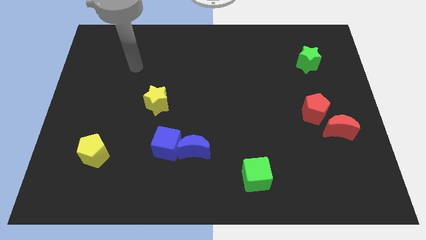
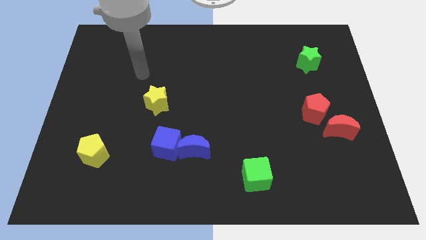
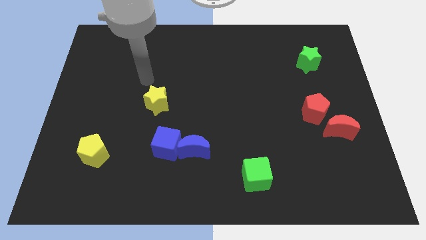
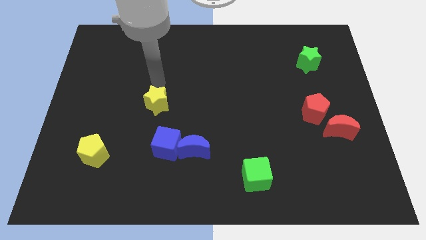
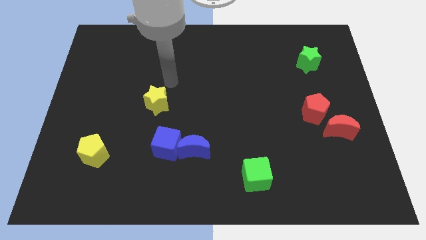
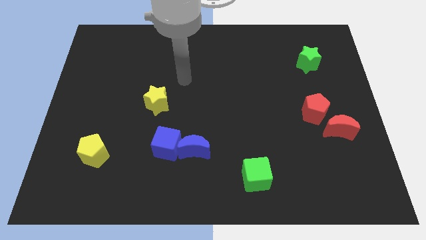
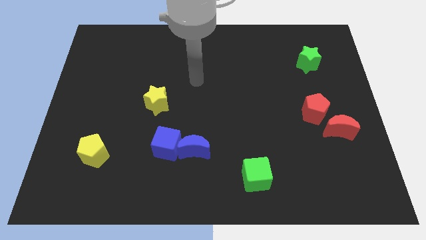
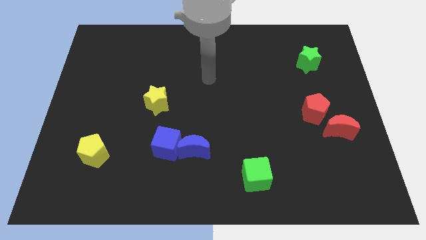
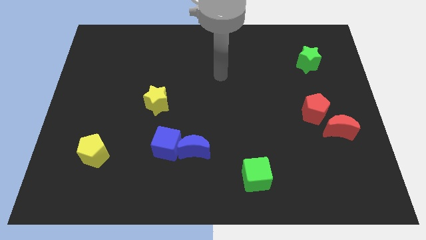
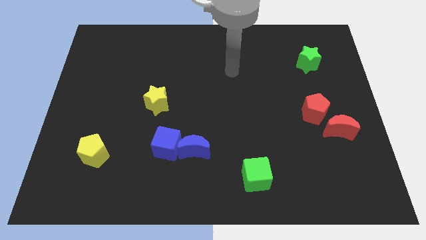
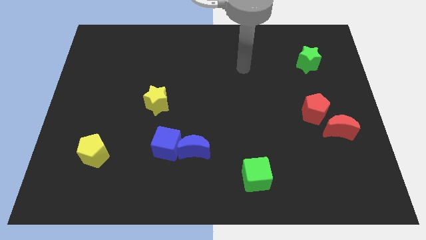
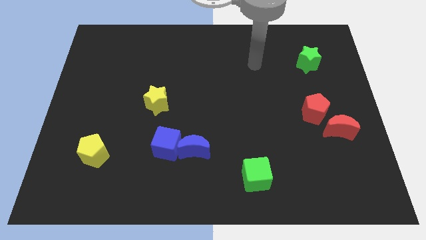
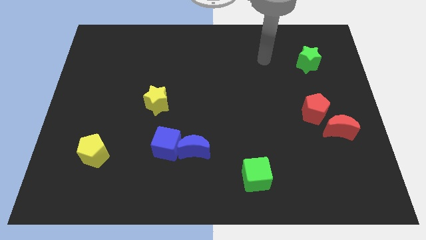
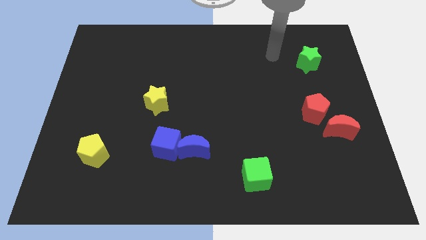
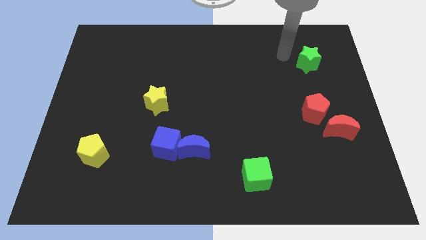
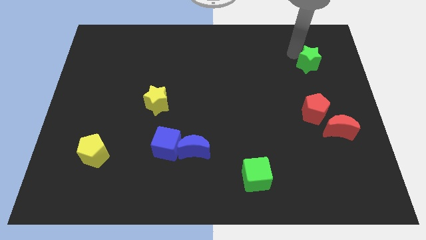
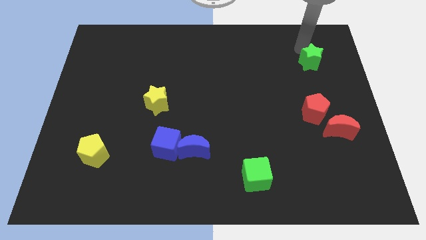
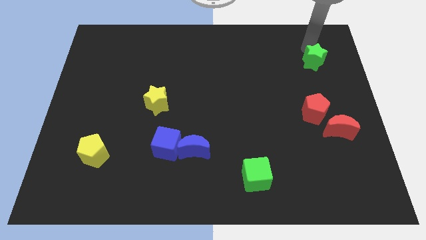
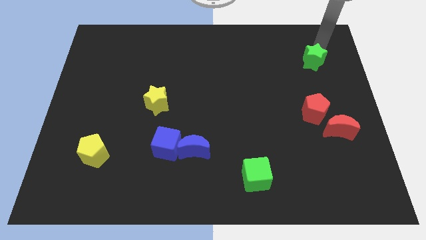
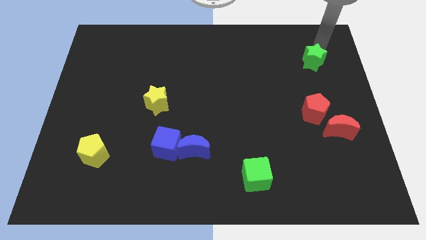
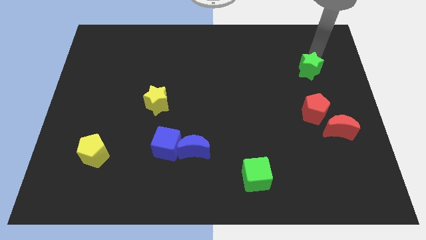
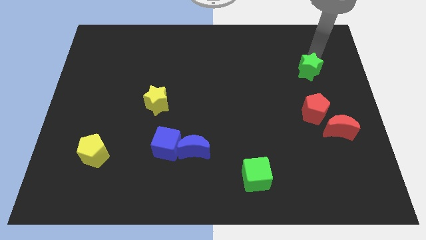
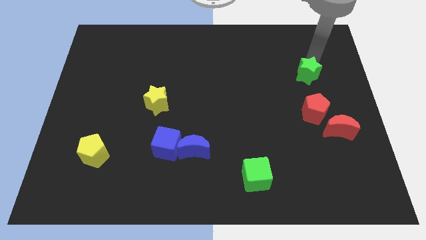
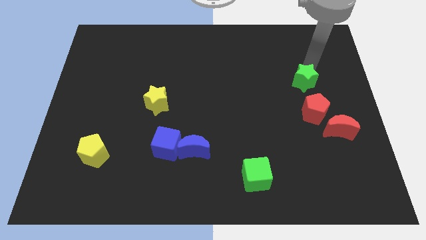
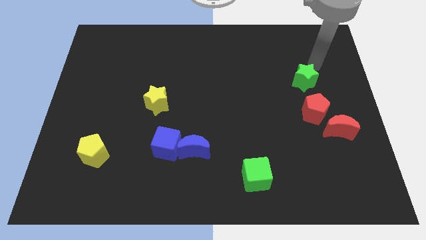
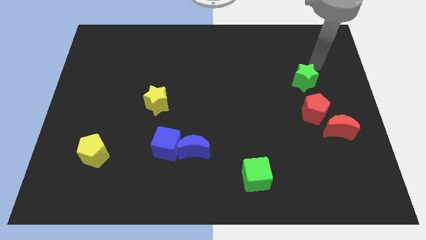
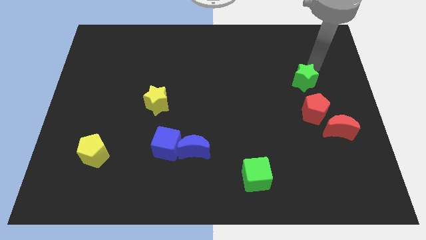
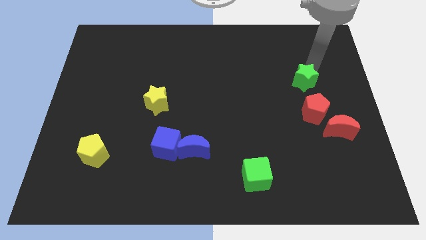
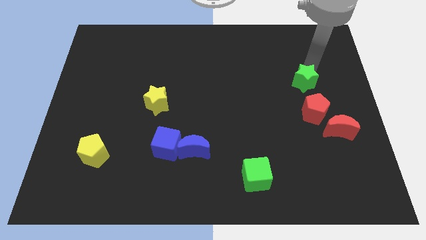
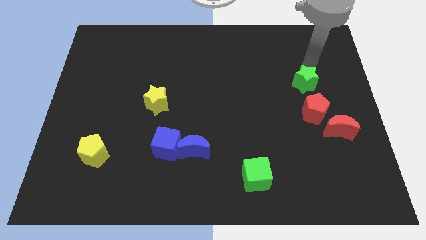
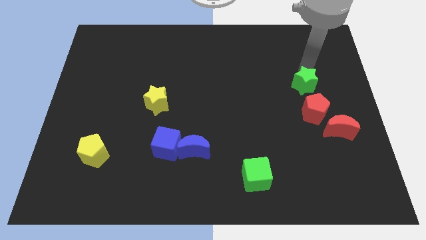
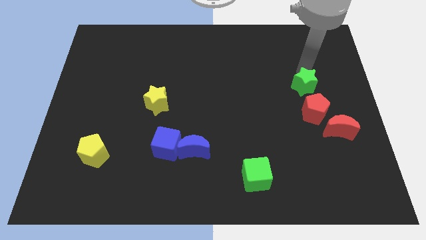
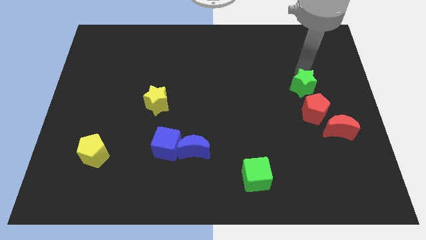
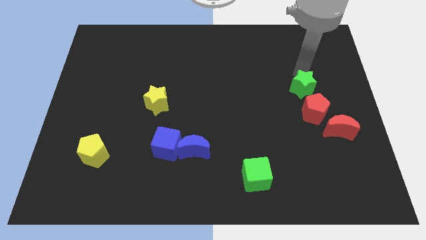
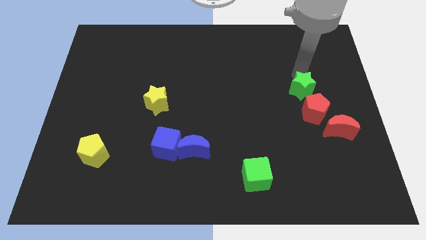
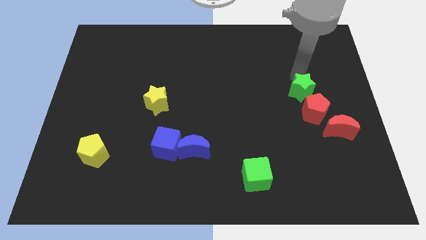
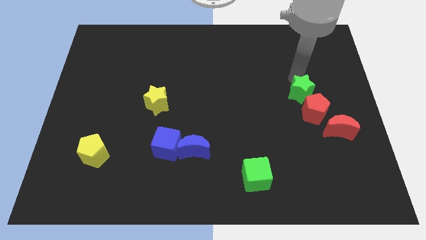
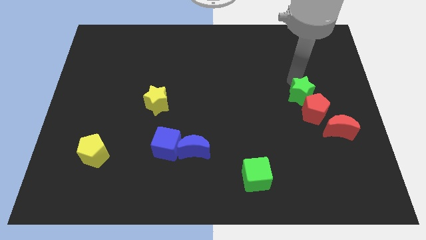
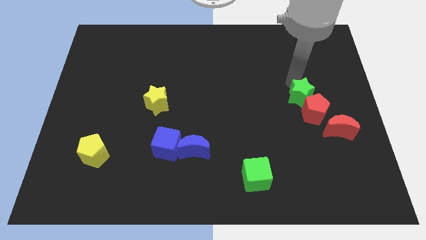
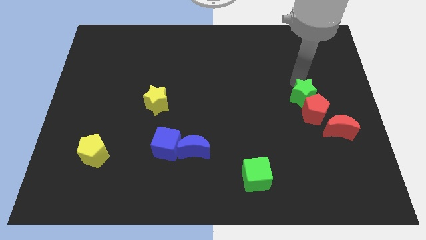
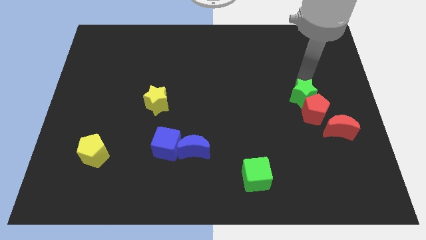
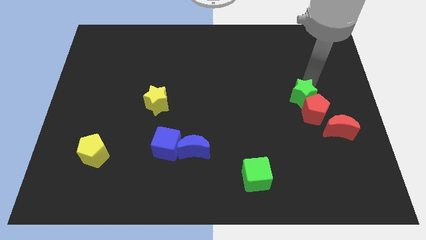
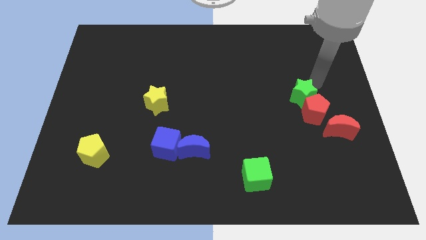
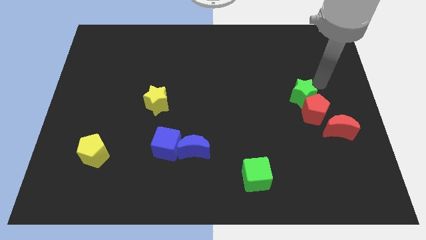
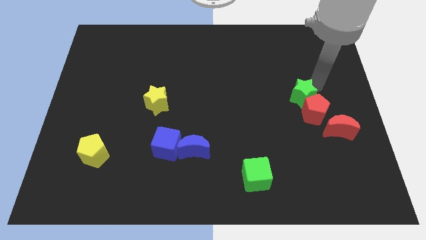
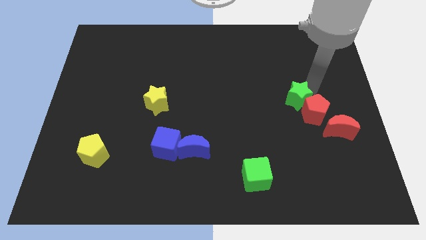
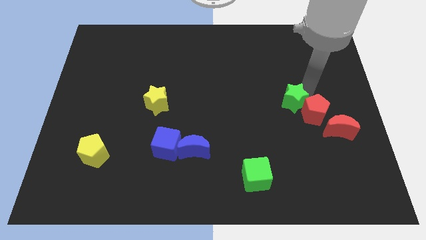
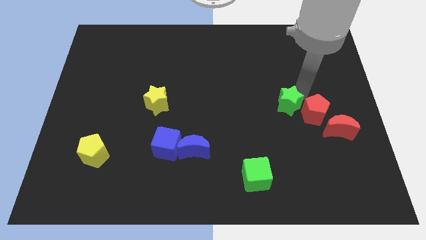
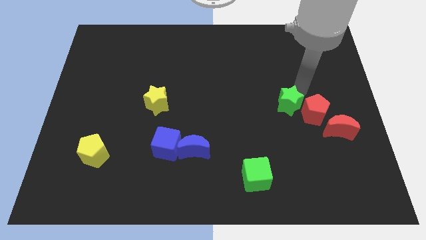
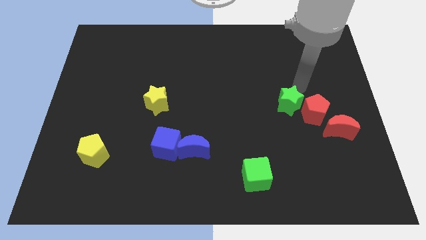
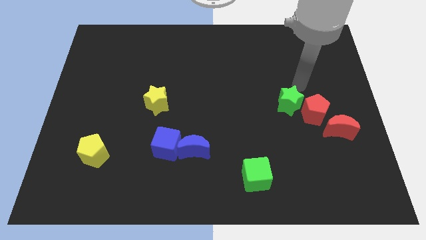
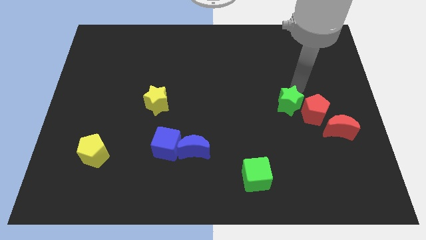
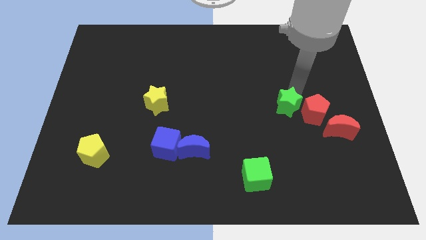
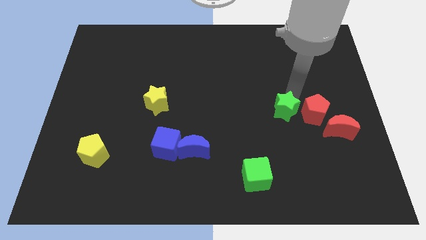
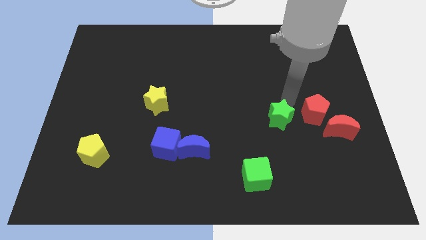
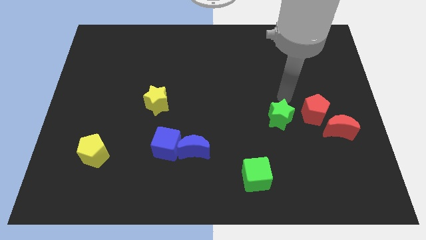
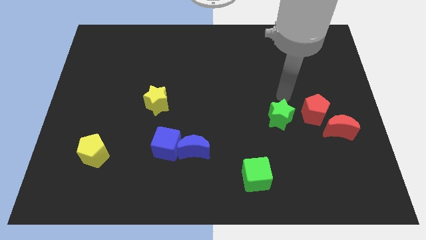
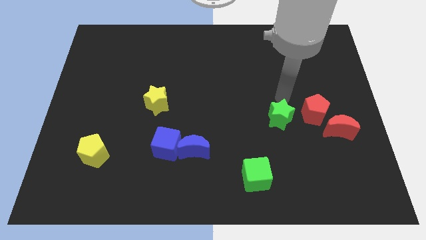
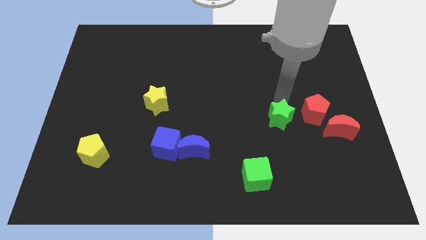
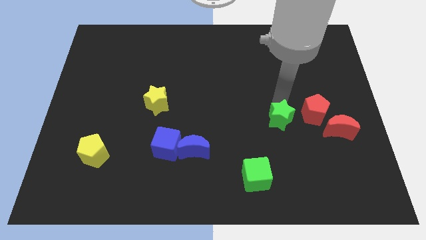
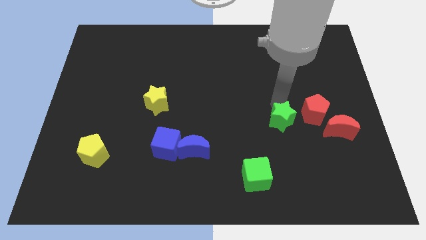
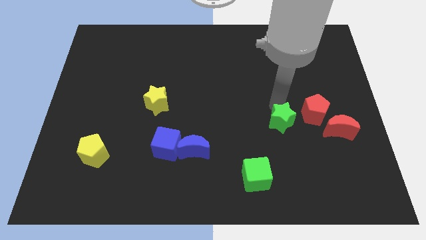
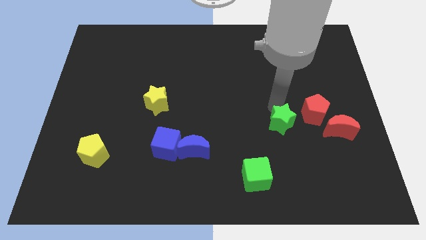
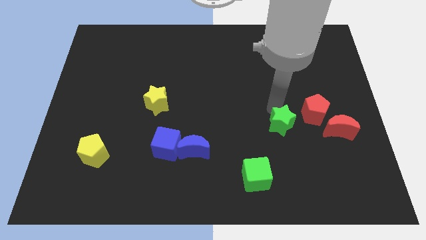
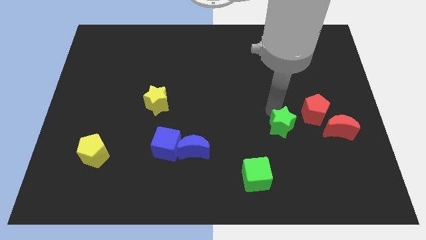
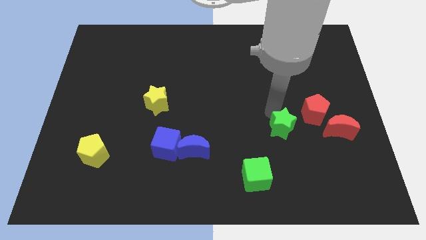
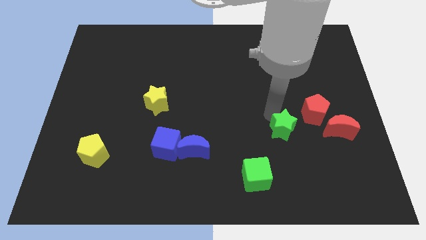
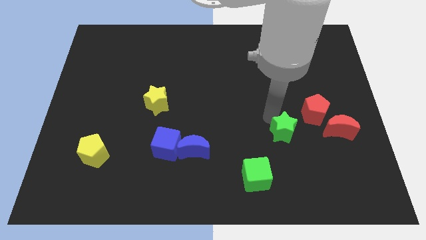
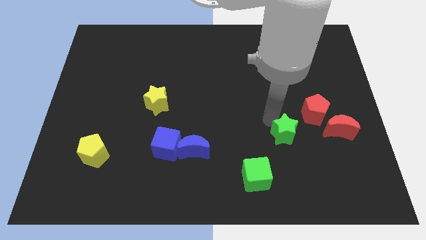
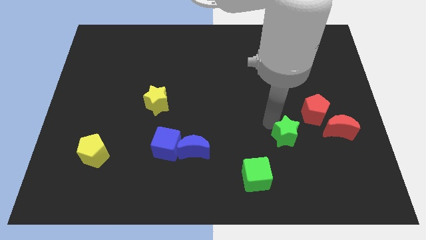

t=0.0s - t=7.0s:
move the green star to the top right side of the green cube
